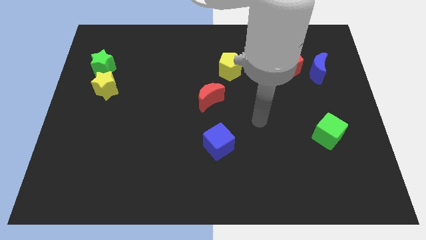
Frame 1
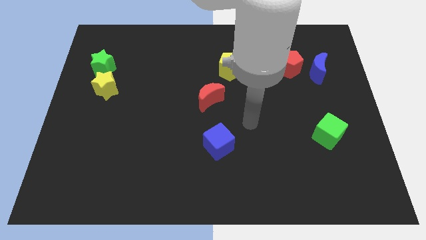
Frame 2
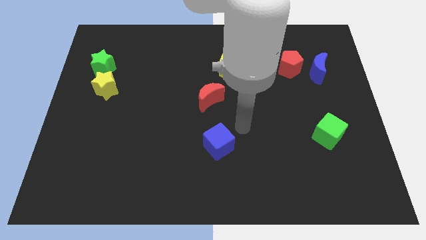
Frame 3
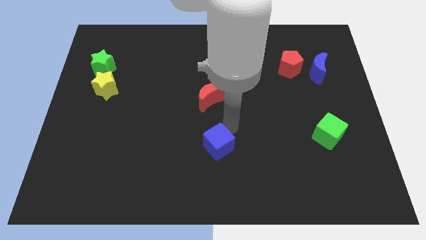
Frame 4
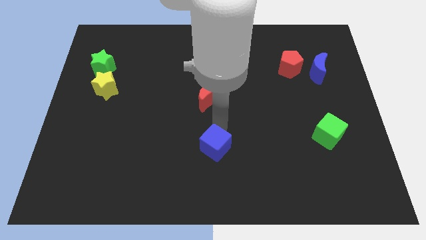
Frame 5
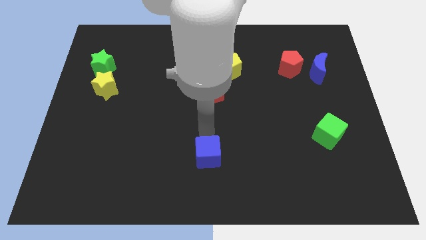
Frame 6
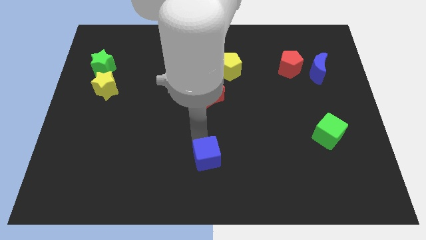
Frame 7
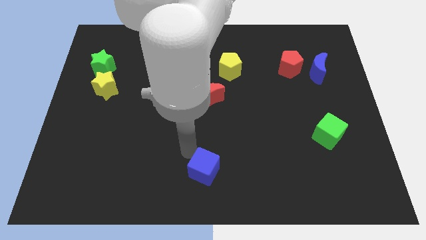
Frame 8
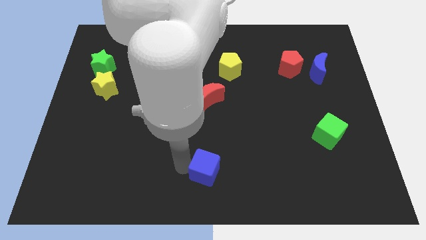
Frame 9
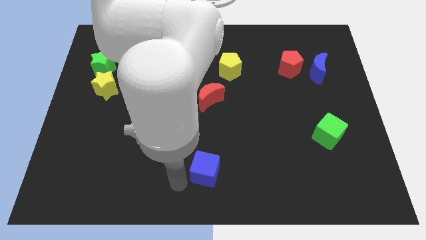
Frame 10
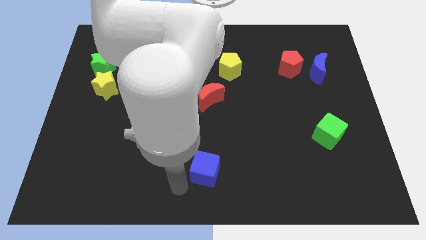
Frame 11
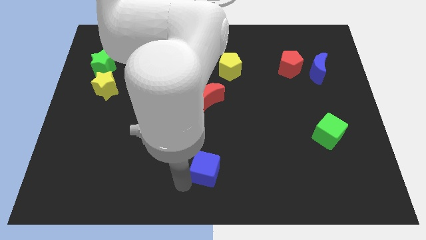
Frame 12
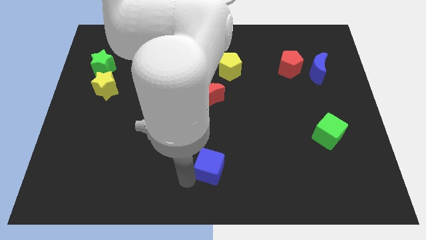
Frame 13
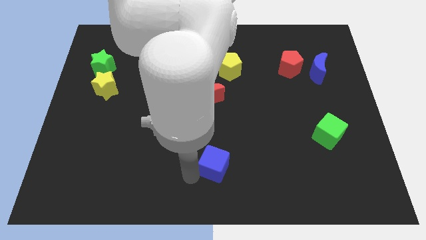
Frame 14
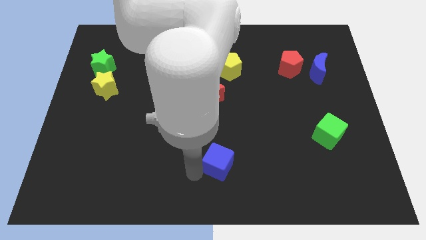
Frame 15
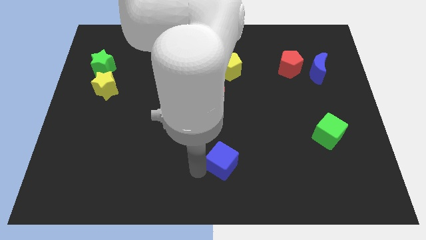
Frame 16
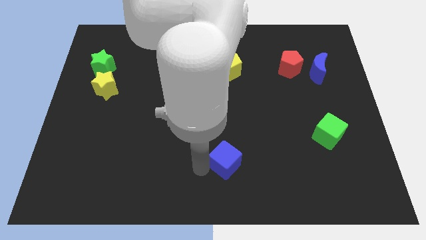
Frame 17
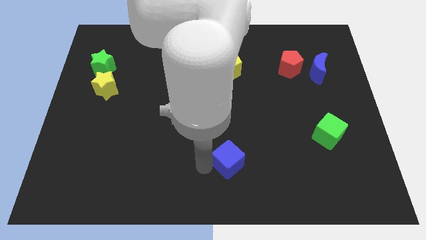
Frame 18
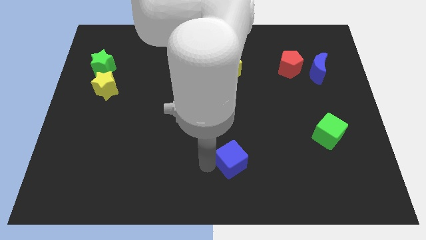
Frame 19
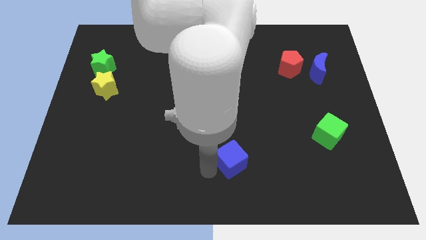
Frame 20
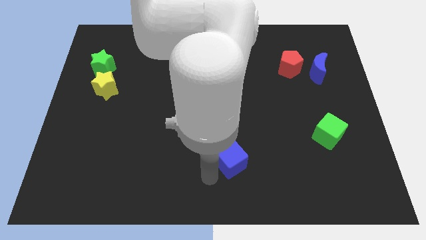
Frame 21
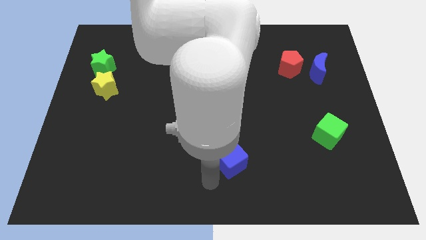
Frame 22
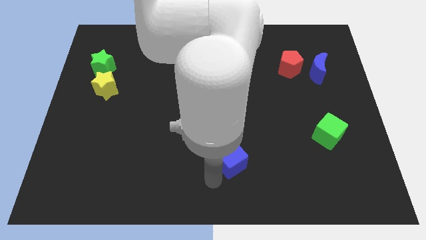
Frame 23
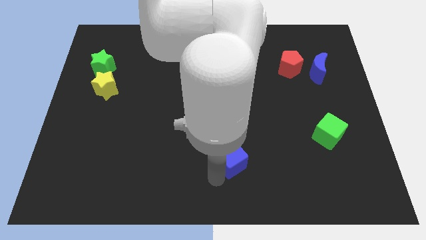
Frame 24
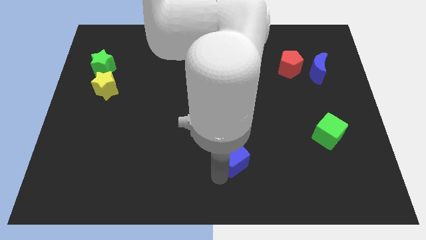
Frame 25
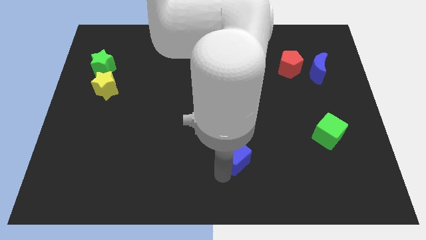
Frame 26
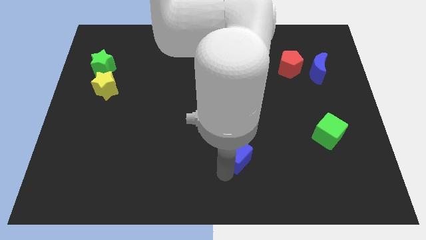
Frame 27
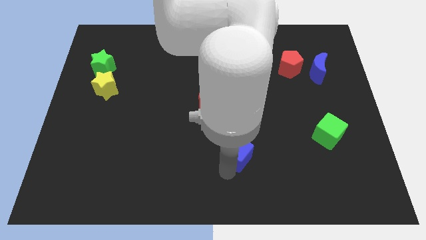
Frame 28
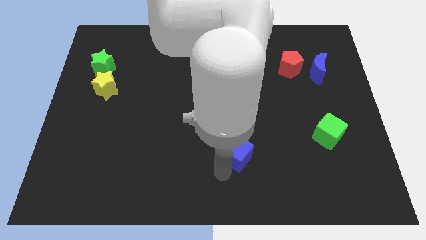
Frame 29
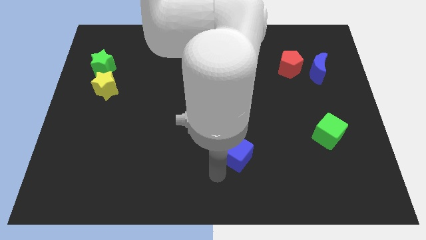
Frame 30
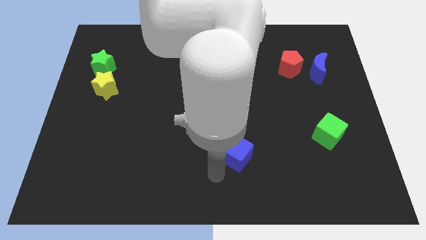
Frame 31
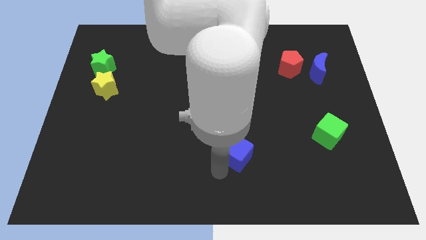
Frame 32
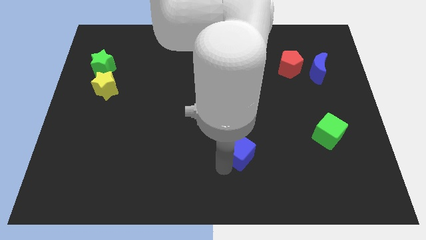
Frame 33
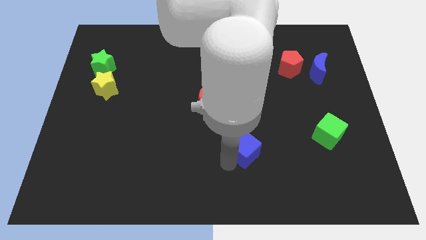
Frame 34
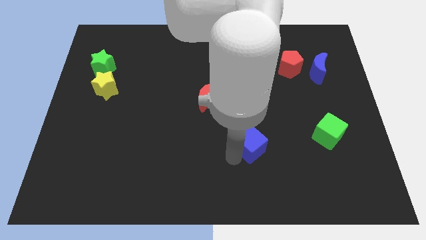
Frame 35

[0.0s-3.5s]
slightly move the blue cube right

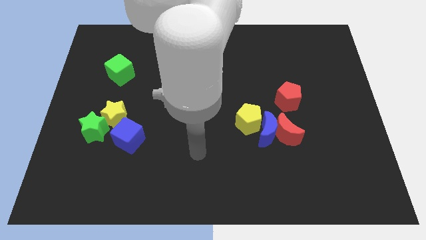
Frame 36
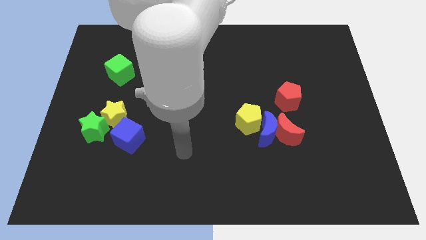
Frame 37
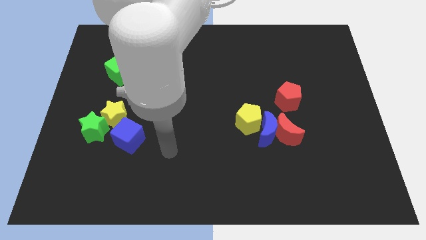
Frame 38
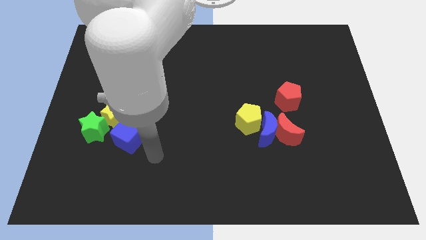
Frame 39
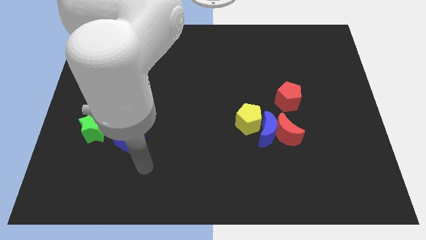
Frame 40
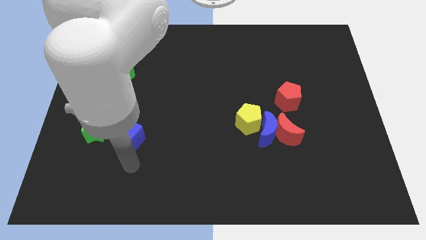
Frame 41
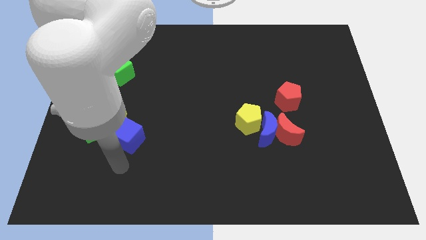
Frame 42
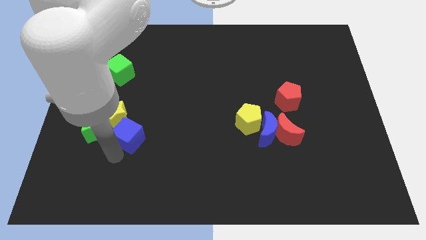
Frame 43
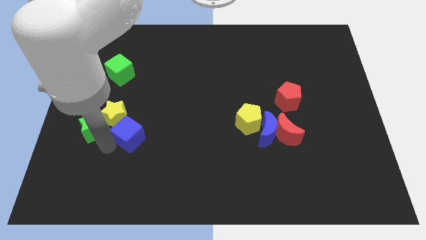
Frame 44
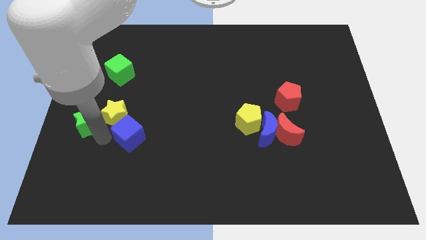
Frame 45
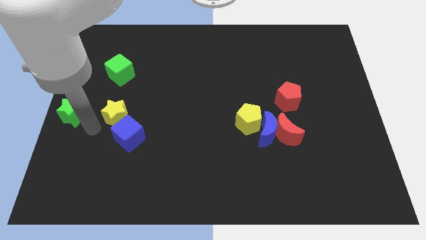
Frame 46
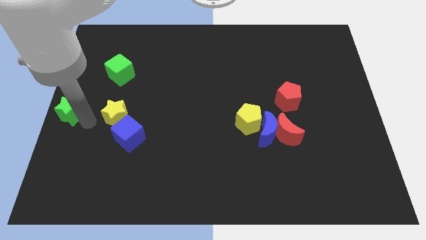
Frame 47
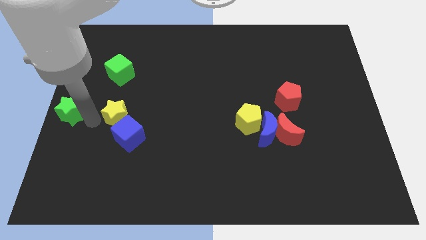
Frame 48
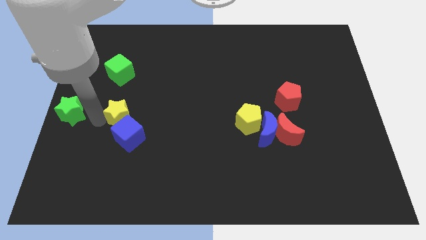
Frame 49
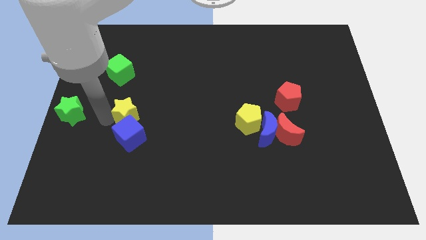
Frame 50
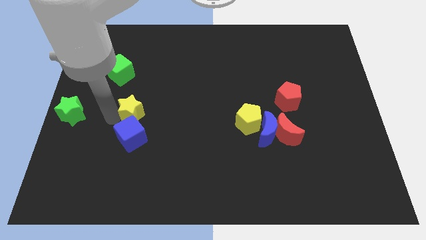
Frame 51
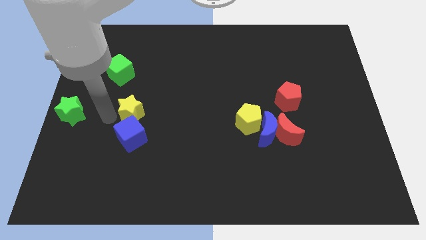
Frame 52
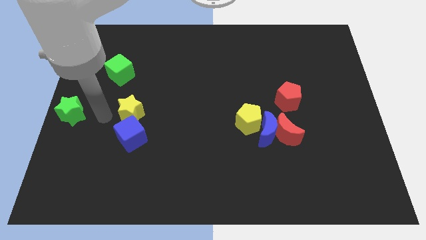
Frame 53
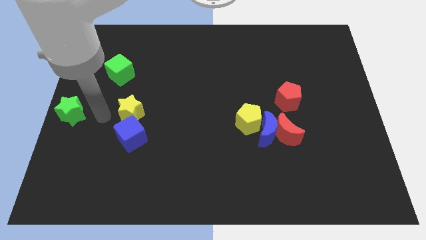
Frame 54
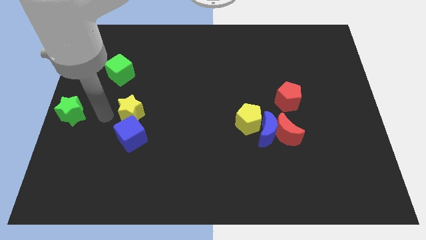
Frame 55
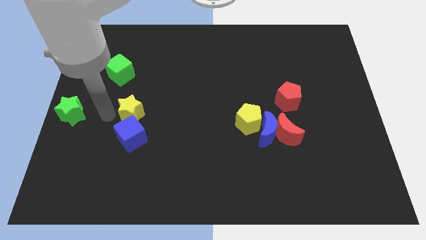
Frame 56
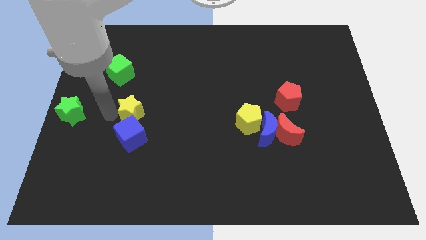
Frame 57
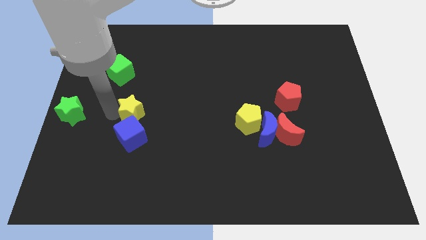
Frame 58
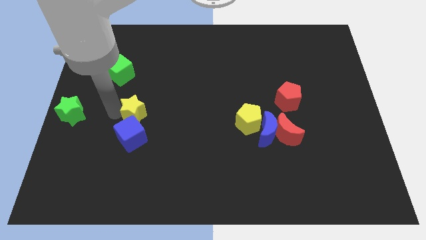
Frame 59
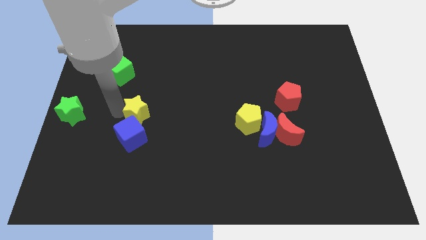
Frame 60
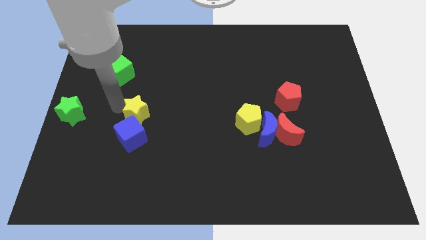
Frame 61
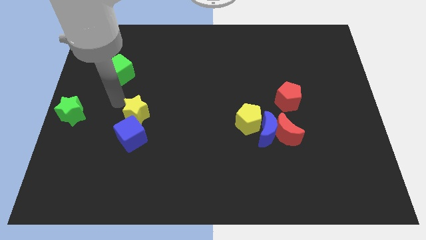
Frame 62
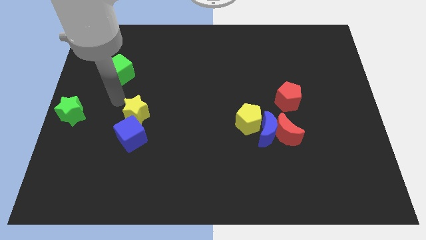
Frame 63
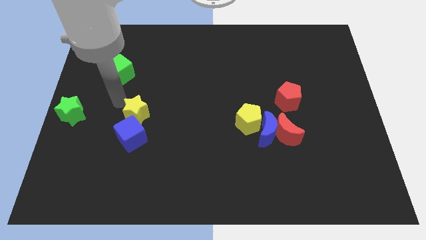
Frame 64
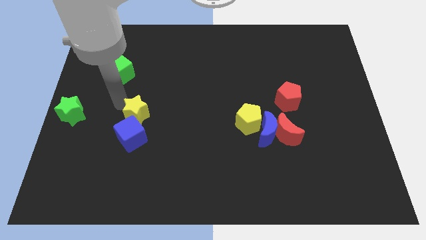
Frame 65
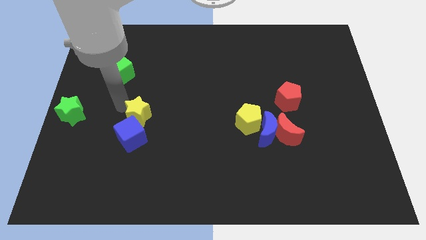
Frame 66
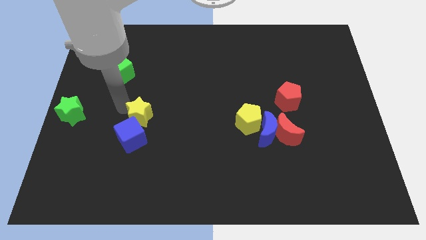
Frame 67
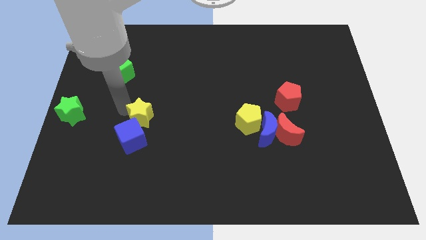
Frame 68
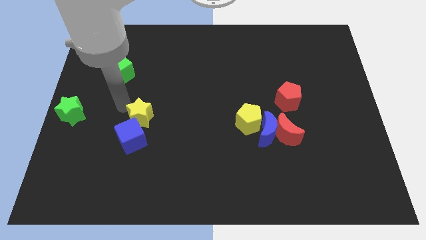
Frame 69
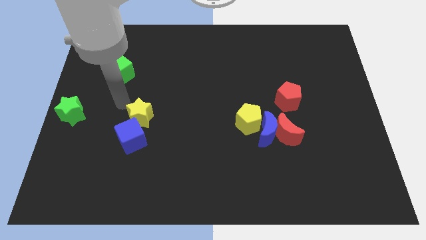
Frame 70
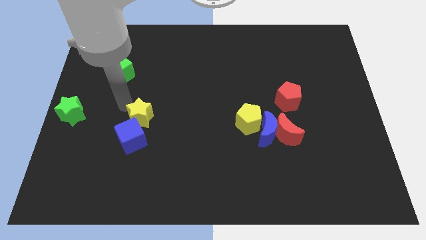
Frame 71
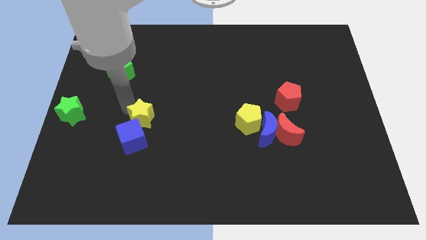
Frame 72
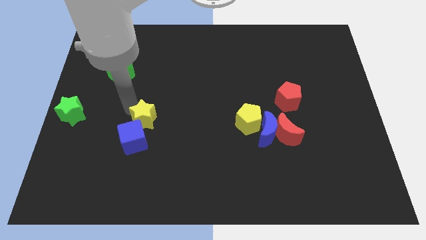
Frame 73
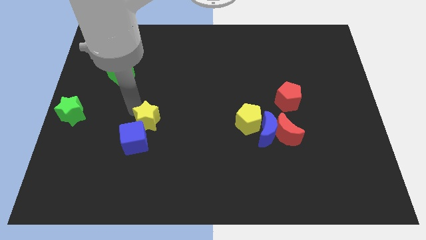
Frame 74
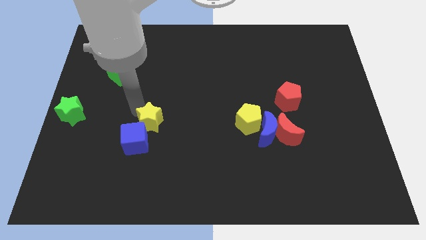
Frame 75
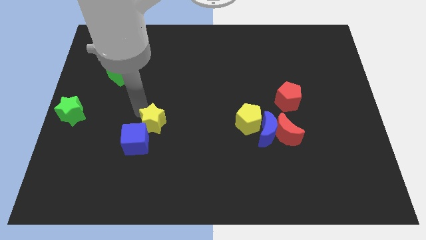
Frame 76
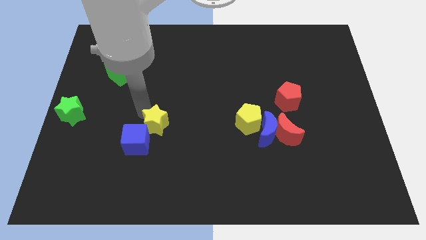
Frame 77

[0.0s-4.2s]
slightly slide the yellow star down and to the right

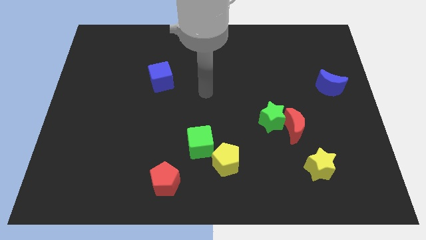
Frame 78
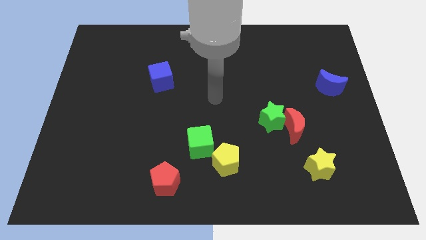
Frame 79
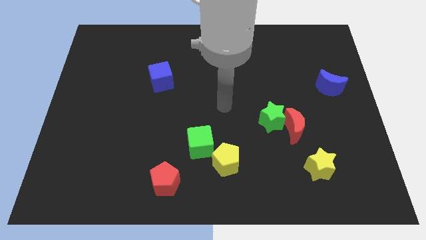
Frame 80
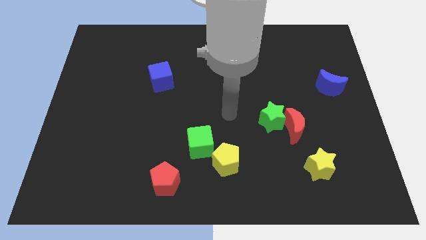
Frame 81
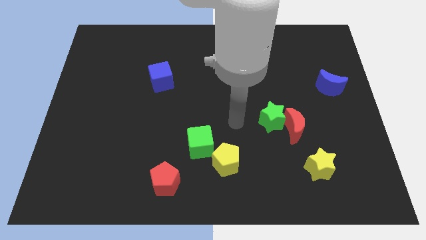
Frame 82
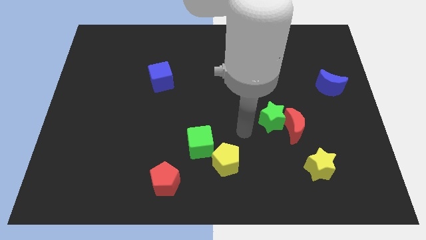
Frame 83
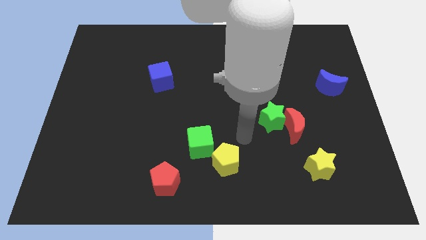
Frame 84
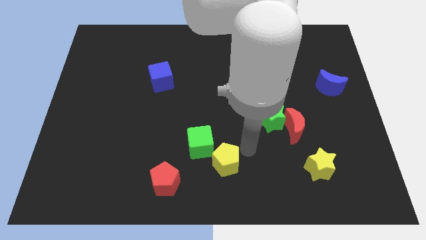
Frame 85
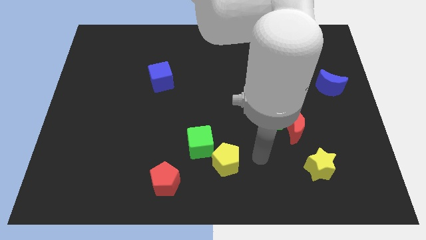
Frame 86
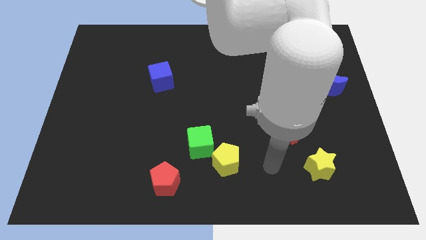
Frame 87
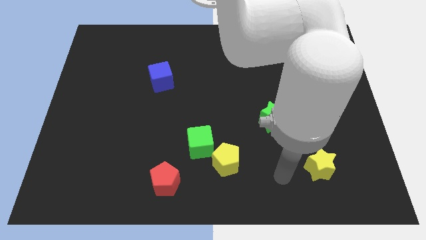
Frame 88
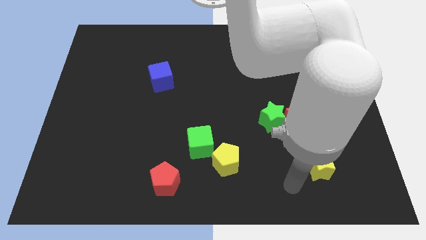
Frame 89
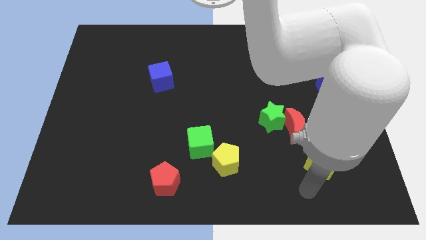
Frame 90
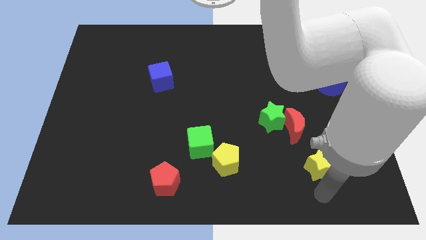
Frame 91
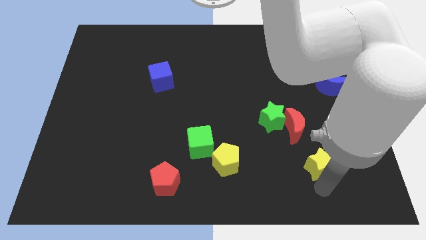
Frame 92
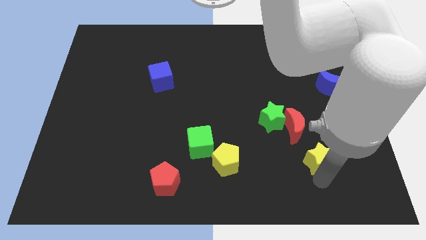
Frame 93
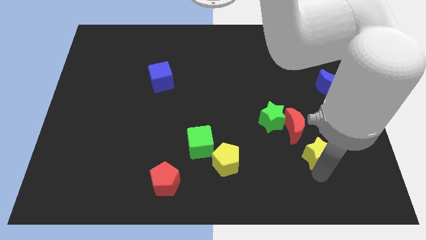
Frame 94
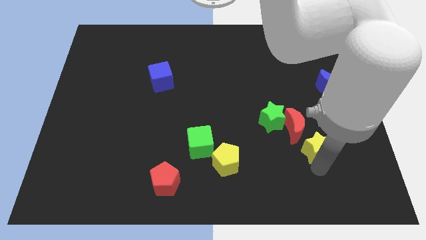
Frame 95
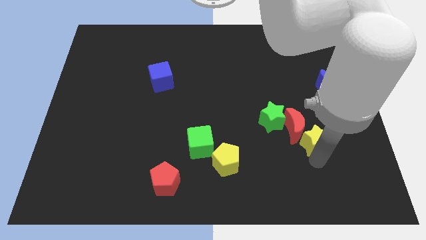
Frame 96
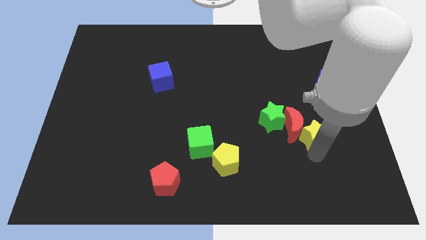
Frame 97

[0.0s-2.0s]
move the yellow star up a little
